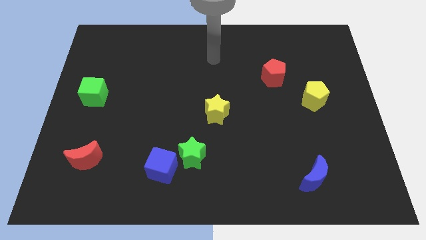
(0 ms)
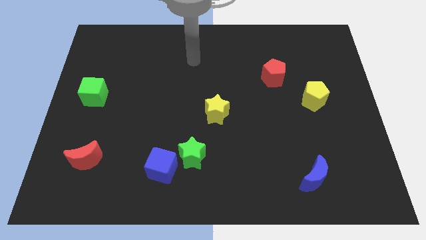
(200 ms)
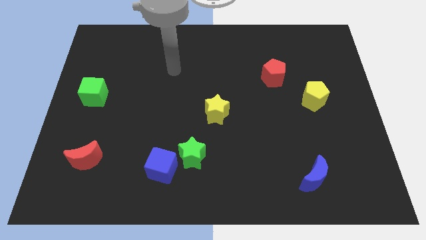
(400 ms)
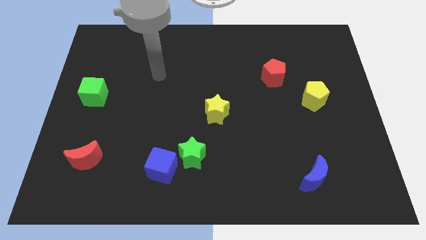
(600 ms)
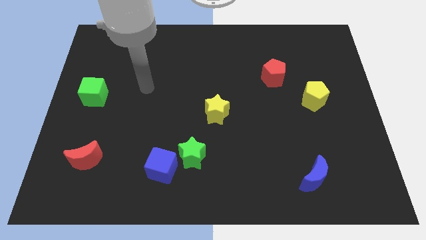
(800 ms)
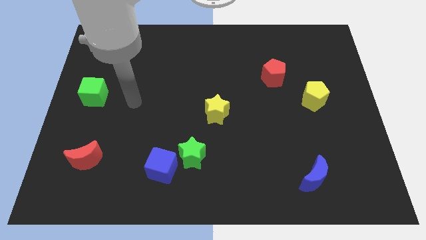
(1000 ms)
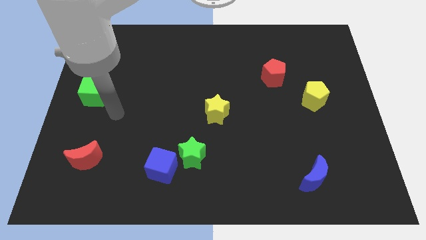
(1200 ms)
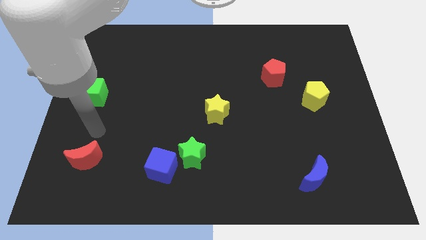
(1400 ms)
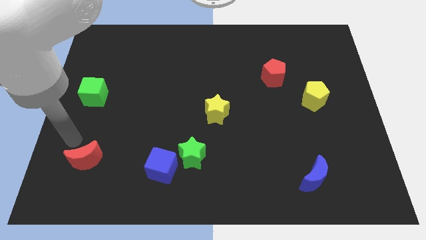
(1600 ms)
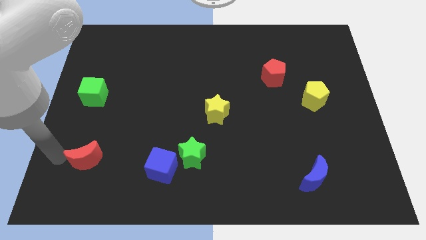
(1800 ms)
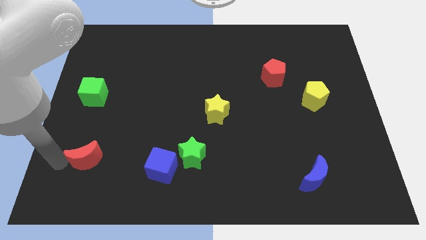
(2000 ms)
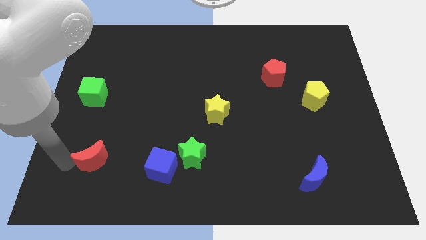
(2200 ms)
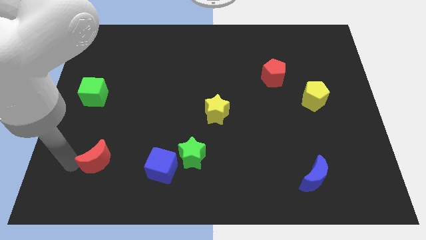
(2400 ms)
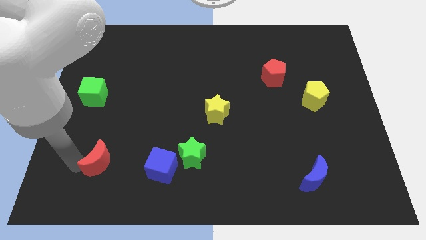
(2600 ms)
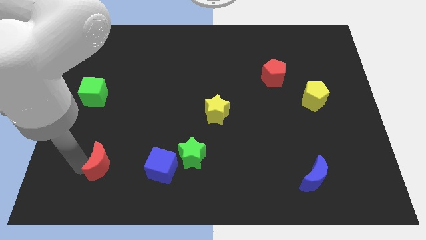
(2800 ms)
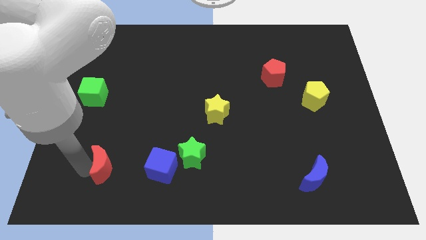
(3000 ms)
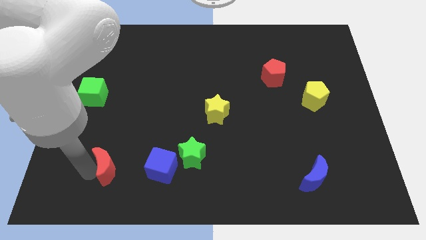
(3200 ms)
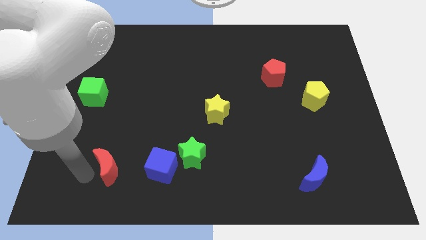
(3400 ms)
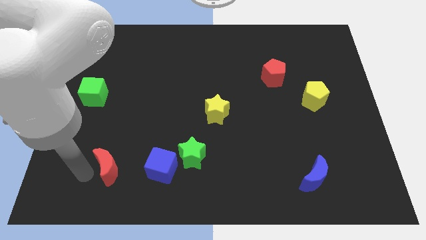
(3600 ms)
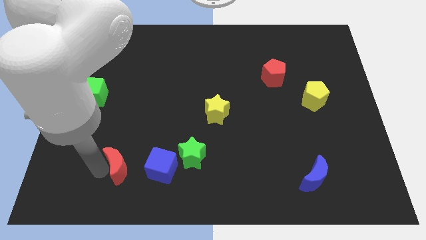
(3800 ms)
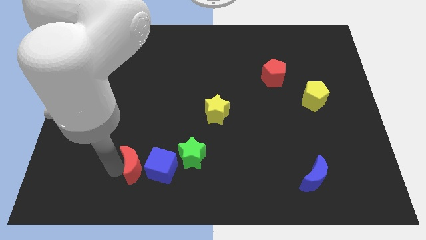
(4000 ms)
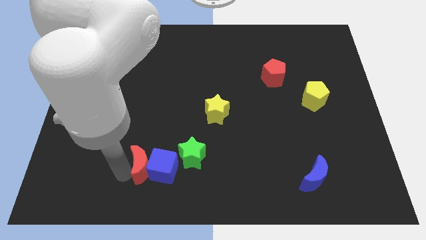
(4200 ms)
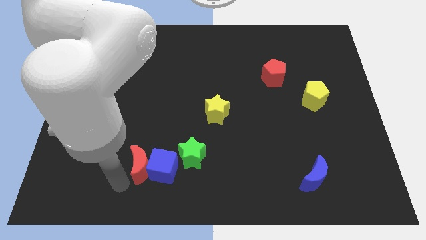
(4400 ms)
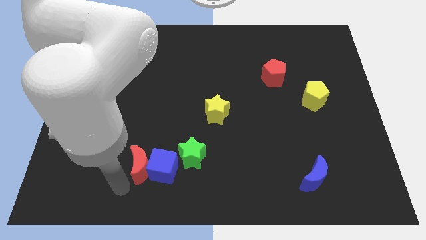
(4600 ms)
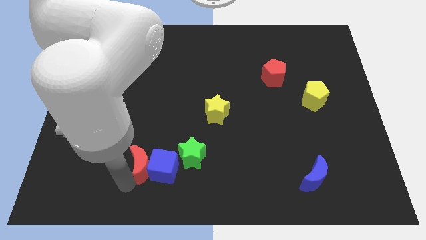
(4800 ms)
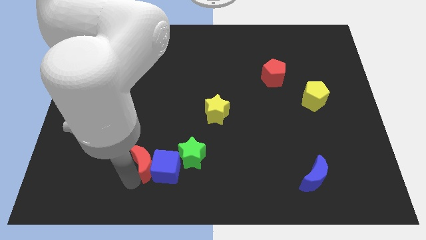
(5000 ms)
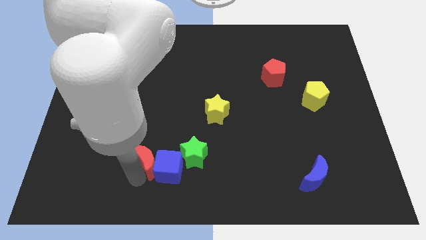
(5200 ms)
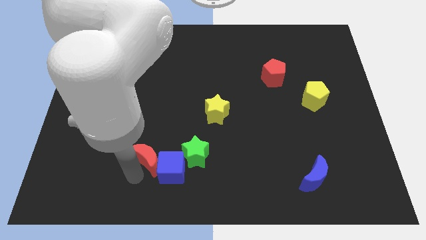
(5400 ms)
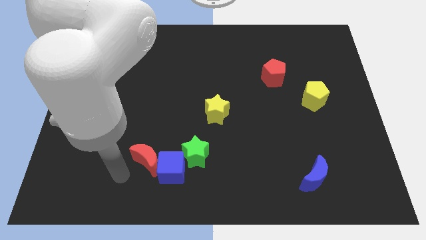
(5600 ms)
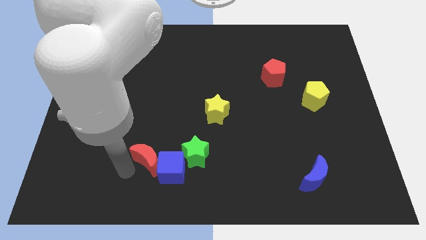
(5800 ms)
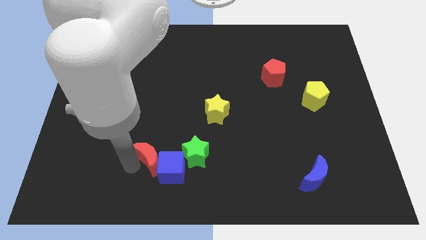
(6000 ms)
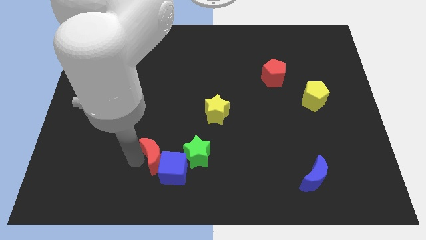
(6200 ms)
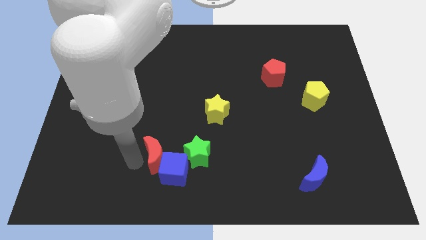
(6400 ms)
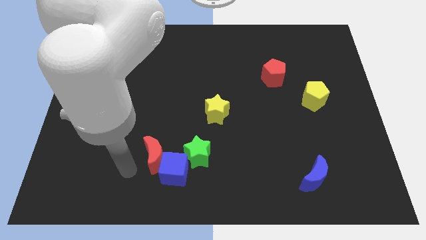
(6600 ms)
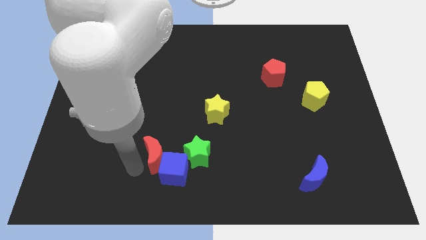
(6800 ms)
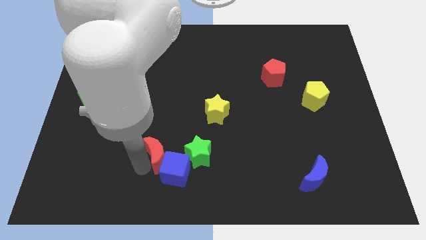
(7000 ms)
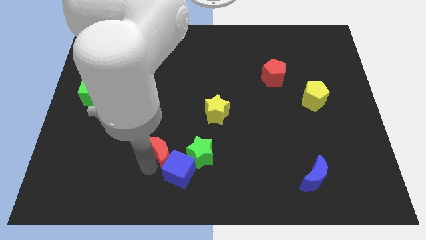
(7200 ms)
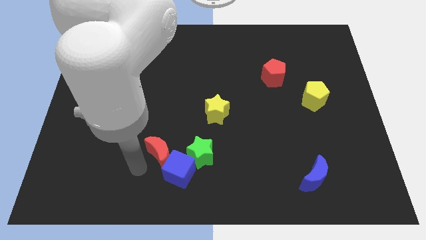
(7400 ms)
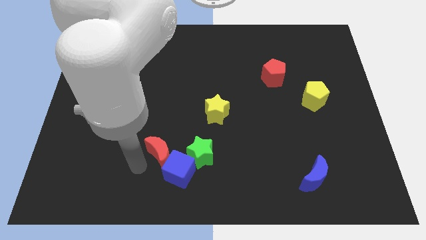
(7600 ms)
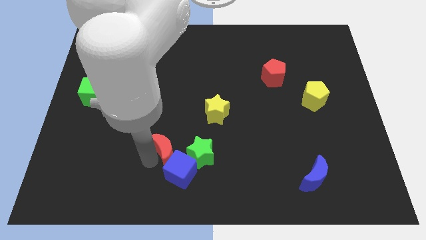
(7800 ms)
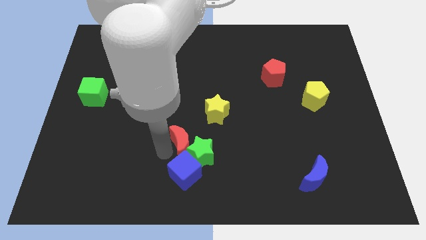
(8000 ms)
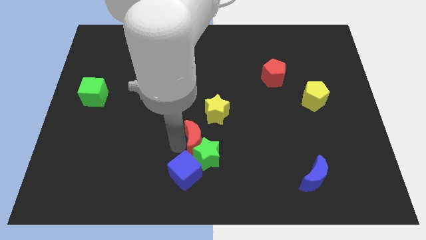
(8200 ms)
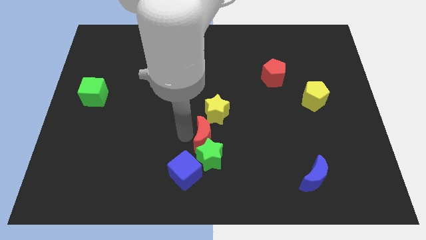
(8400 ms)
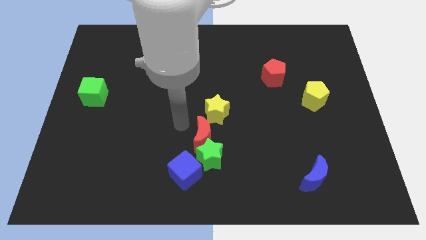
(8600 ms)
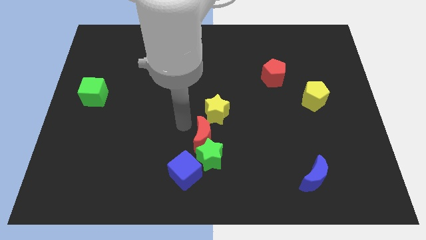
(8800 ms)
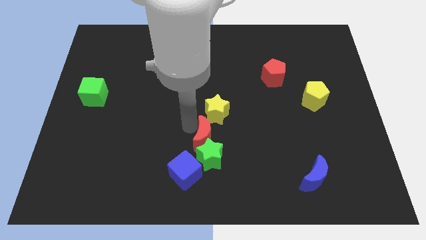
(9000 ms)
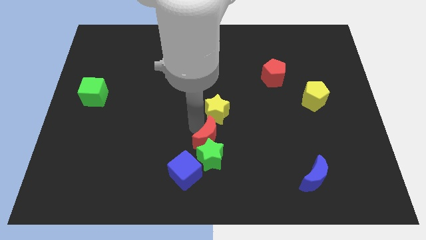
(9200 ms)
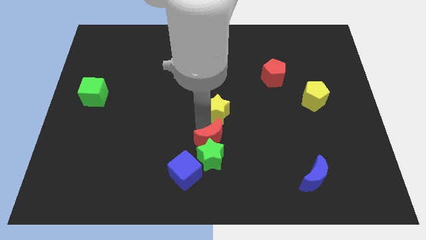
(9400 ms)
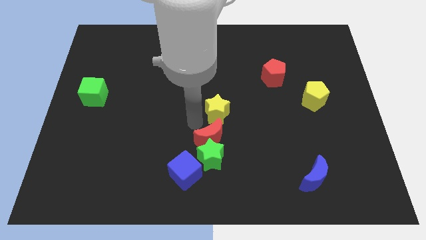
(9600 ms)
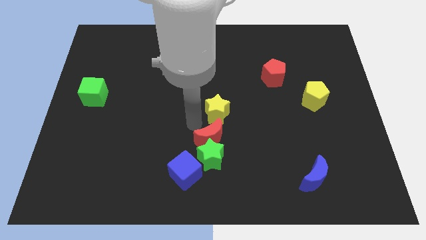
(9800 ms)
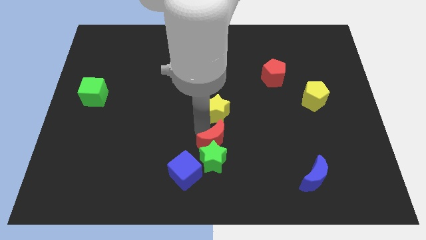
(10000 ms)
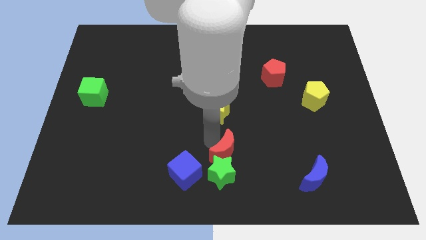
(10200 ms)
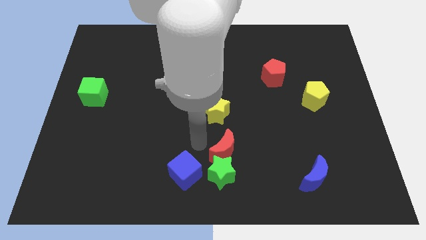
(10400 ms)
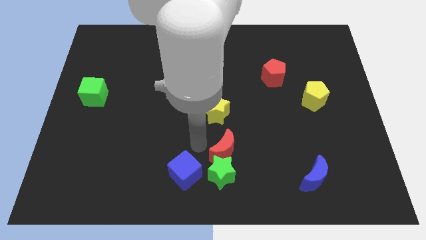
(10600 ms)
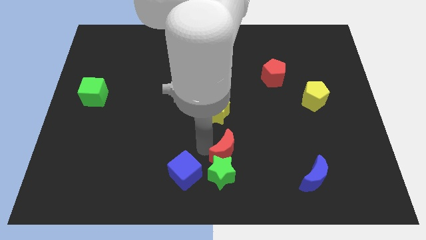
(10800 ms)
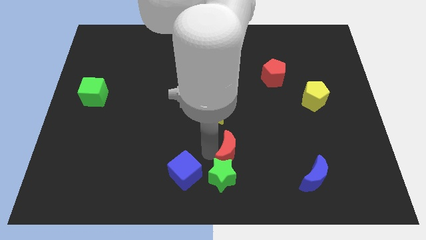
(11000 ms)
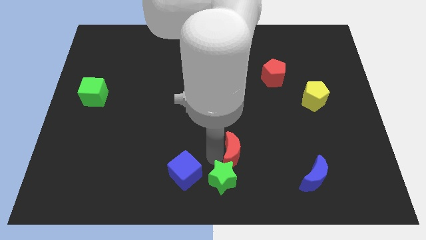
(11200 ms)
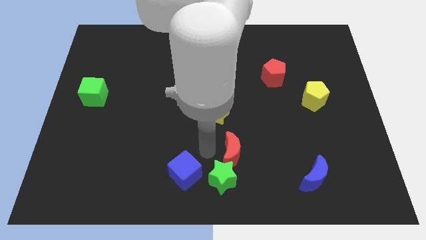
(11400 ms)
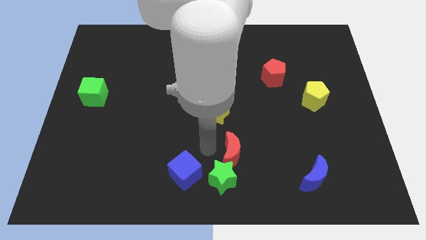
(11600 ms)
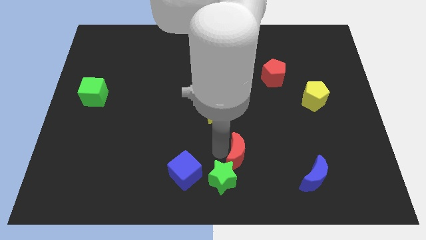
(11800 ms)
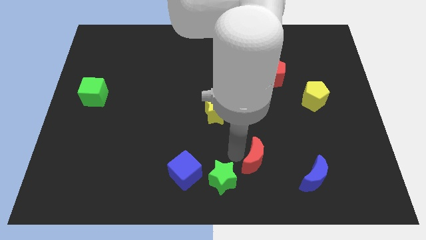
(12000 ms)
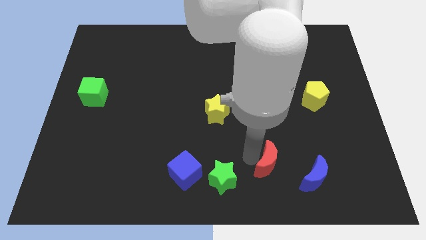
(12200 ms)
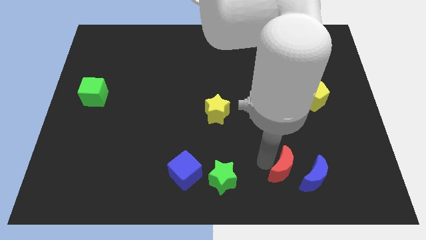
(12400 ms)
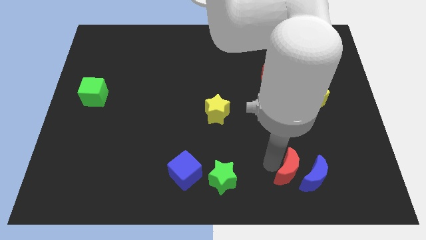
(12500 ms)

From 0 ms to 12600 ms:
put the red moon to the blue moon

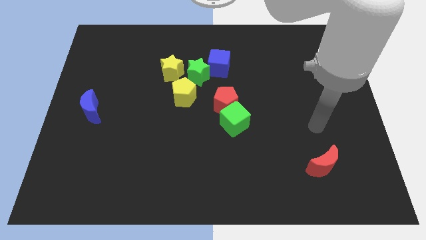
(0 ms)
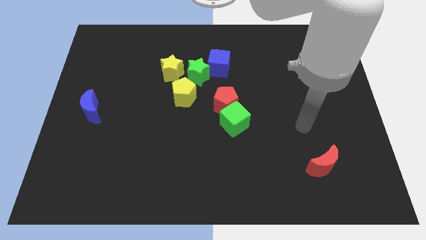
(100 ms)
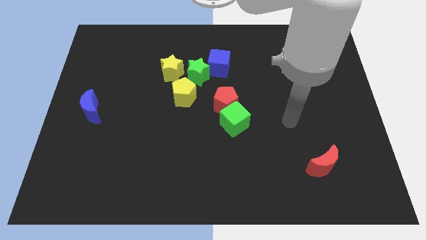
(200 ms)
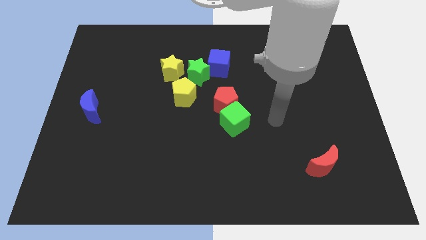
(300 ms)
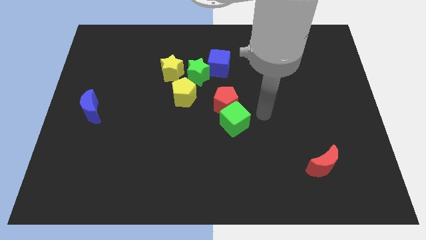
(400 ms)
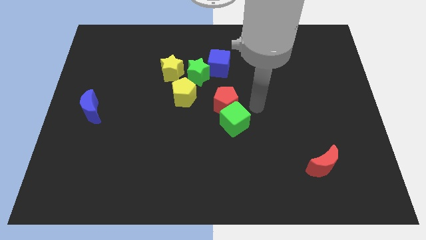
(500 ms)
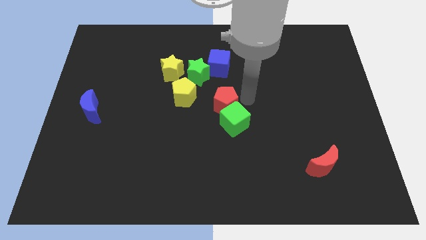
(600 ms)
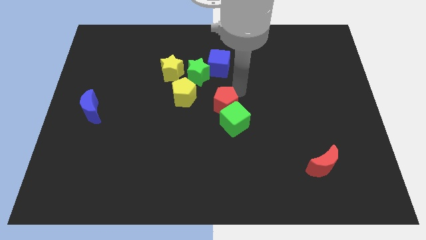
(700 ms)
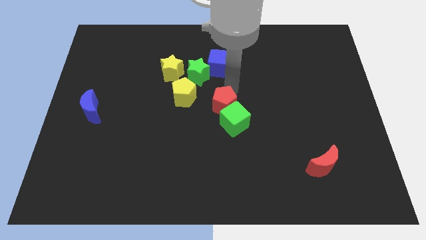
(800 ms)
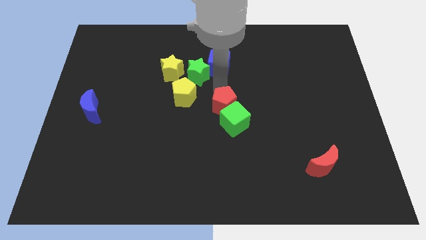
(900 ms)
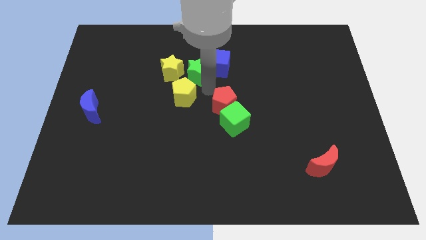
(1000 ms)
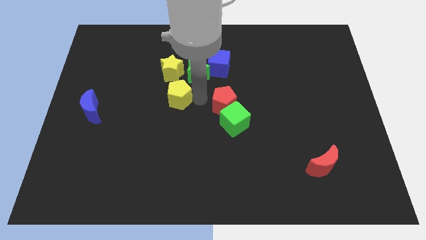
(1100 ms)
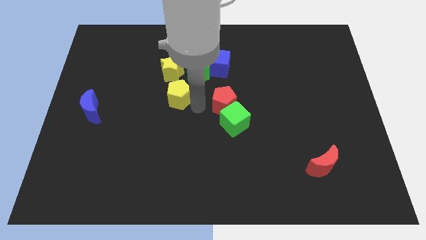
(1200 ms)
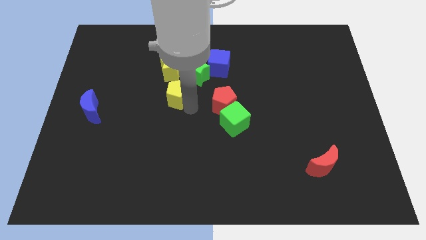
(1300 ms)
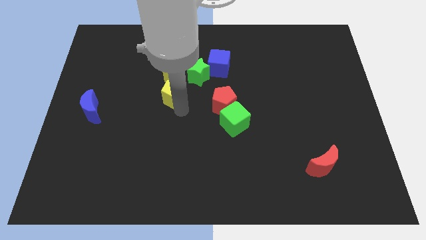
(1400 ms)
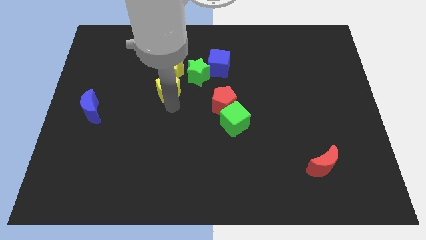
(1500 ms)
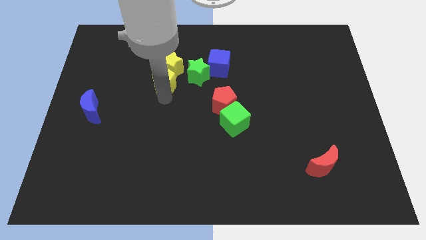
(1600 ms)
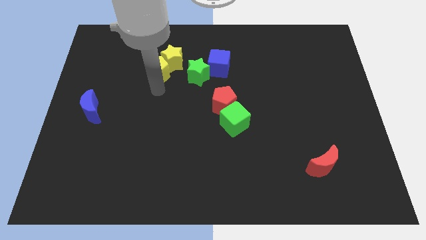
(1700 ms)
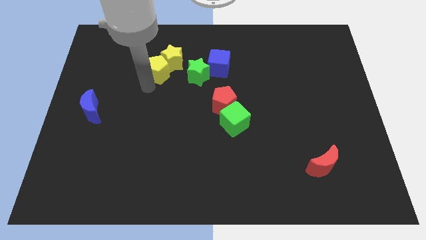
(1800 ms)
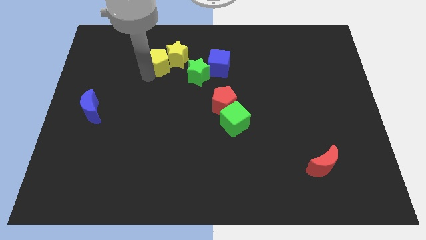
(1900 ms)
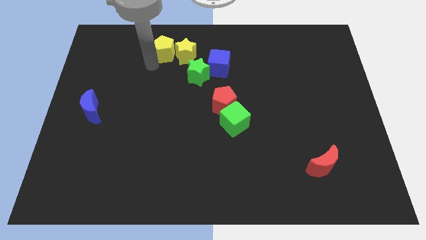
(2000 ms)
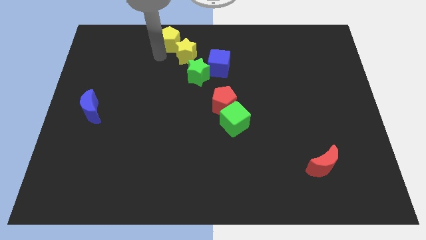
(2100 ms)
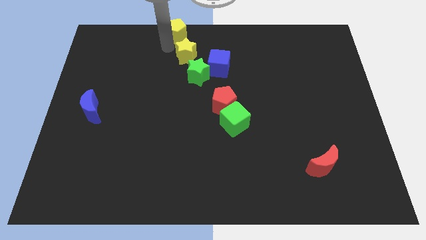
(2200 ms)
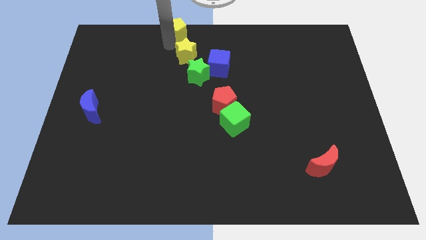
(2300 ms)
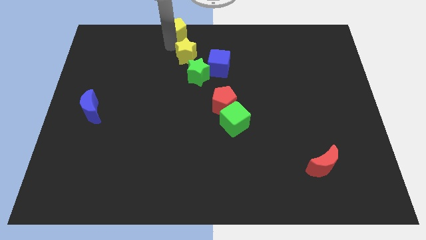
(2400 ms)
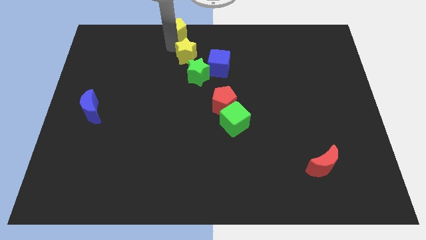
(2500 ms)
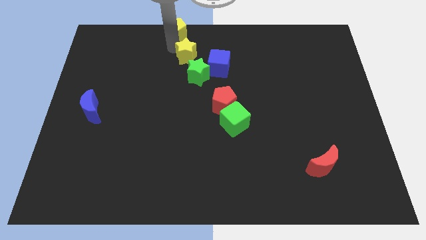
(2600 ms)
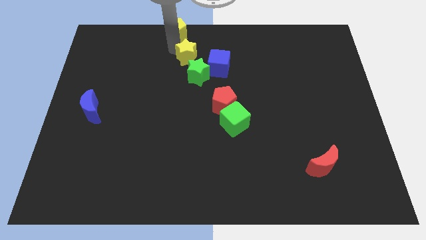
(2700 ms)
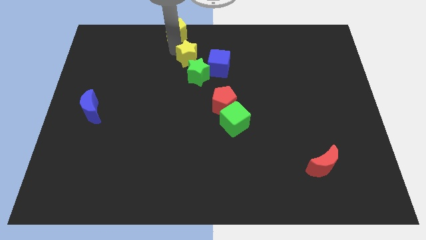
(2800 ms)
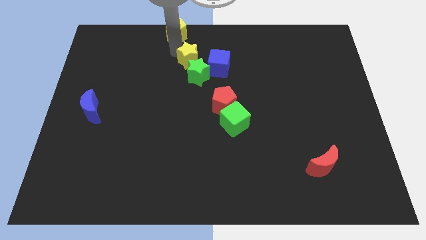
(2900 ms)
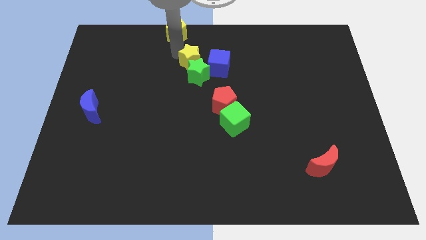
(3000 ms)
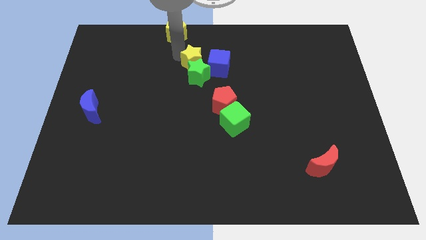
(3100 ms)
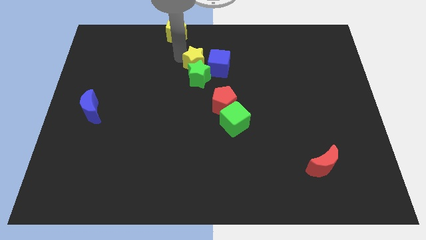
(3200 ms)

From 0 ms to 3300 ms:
move the yellow star close to the blue cube
